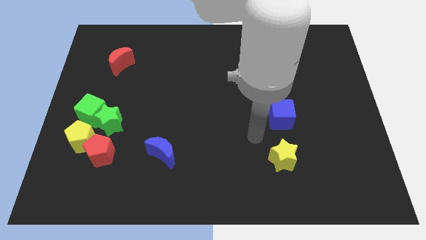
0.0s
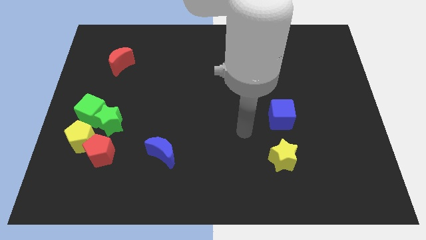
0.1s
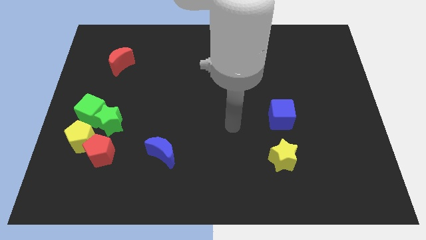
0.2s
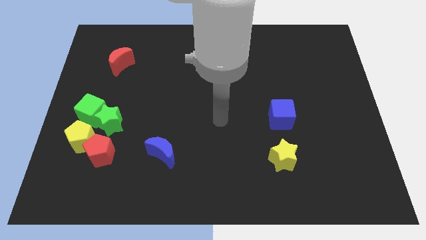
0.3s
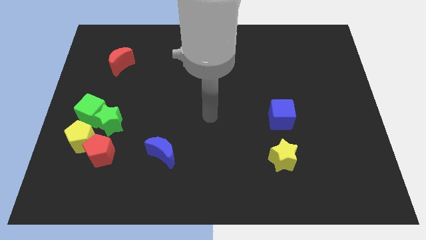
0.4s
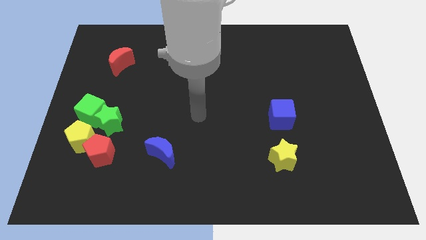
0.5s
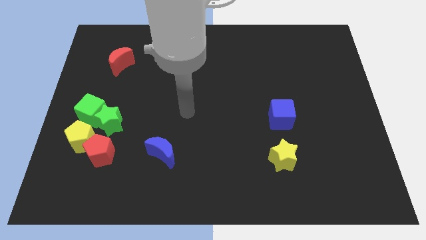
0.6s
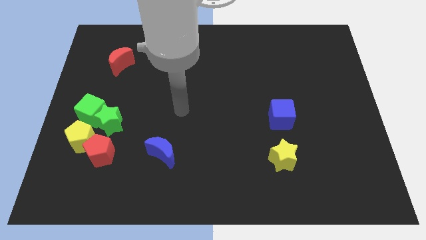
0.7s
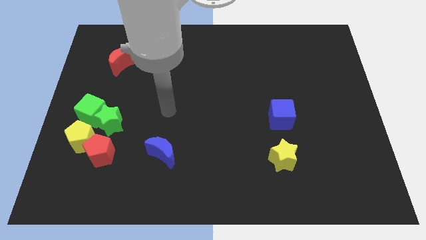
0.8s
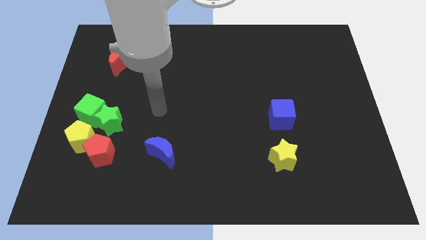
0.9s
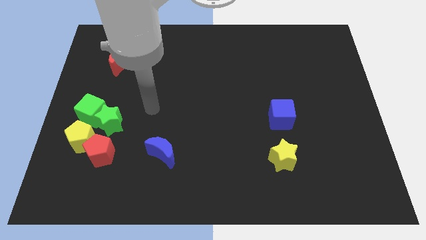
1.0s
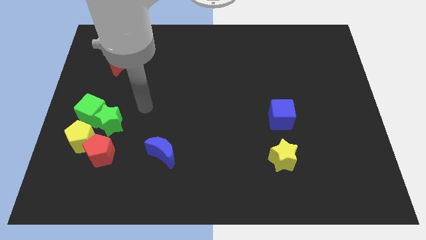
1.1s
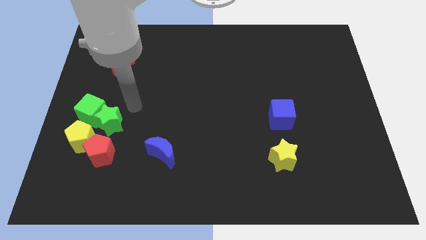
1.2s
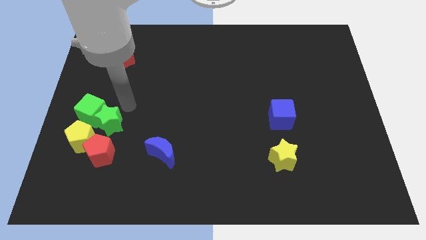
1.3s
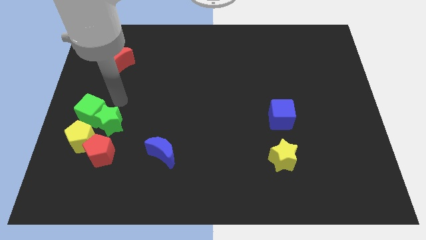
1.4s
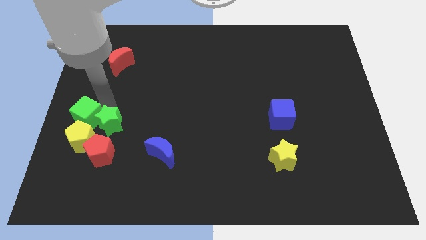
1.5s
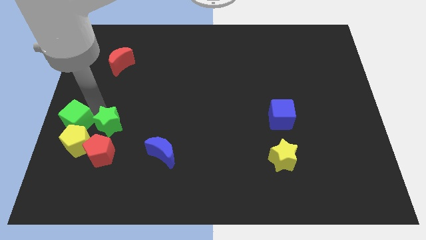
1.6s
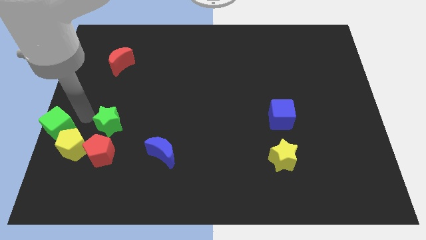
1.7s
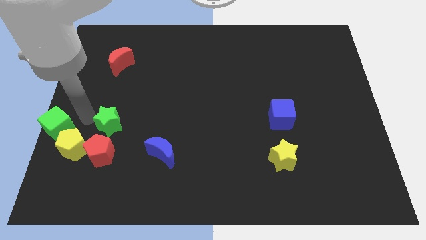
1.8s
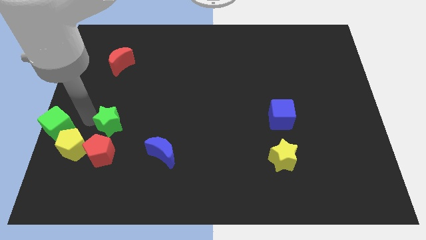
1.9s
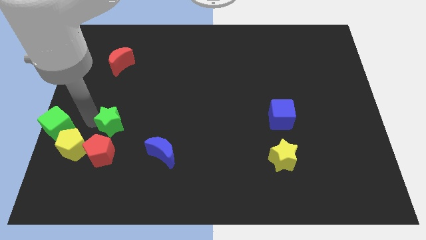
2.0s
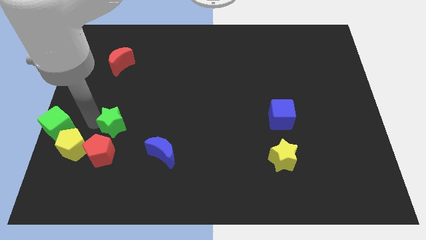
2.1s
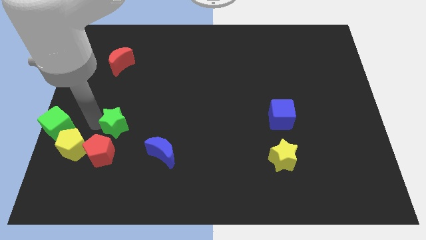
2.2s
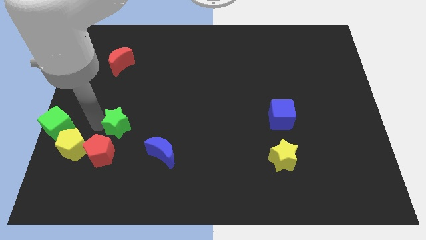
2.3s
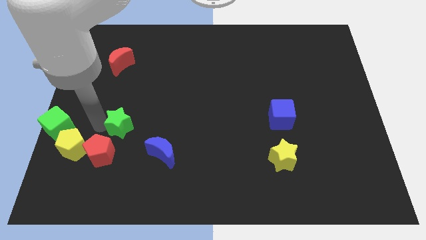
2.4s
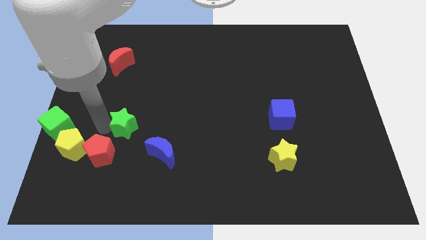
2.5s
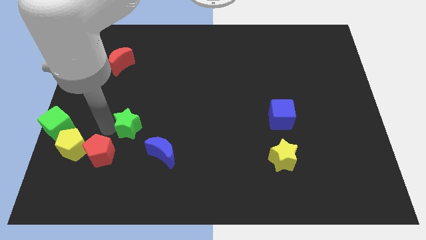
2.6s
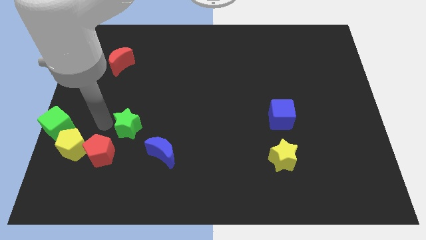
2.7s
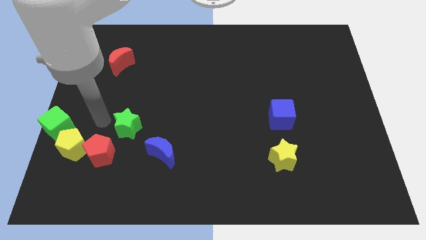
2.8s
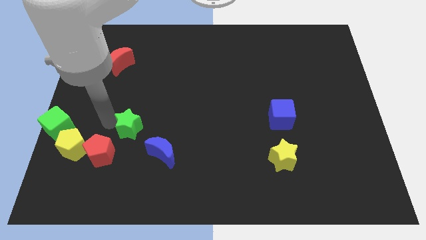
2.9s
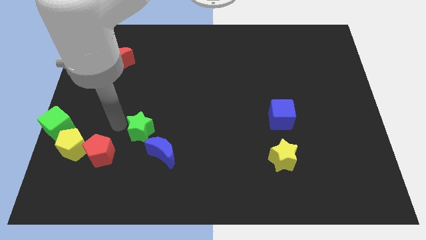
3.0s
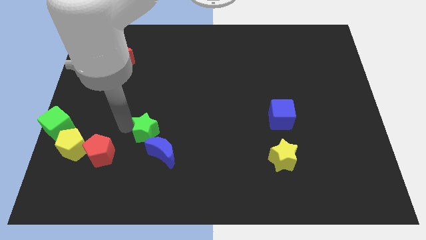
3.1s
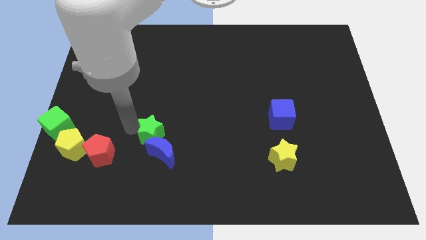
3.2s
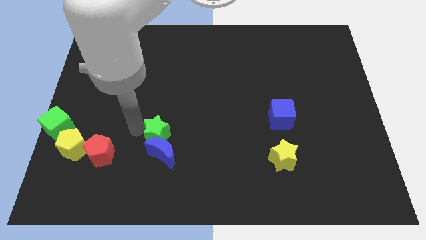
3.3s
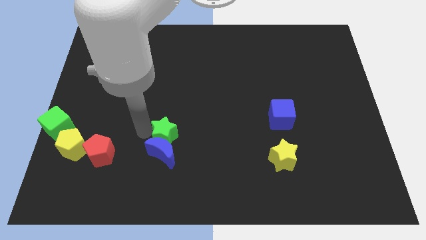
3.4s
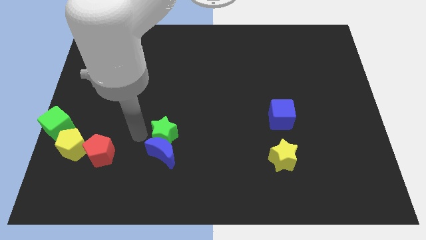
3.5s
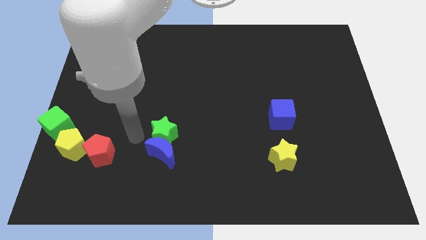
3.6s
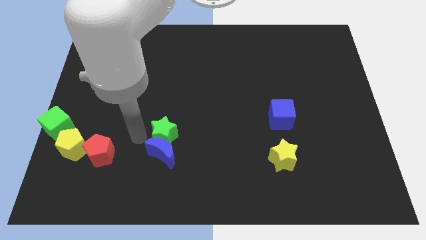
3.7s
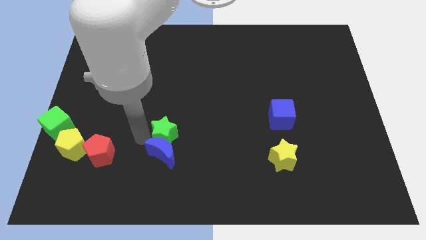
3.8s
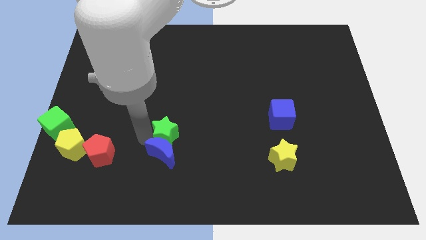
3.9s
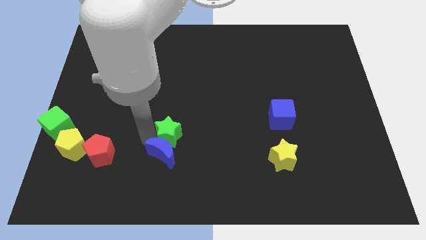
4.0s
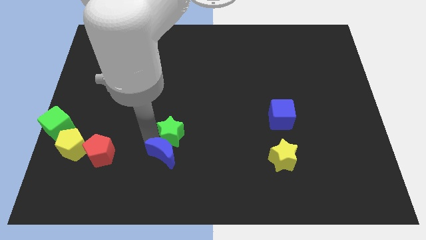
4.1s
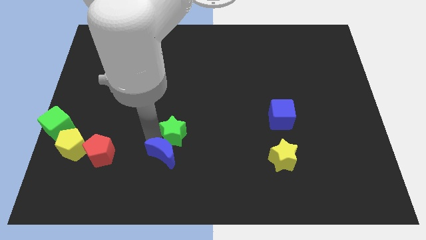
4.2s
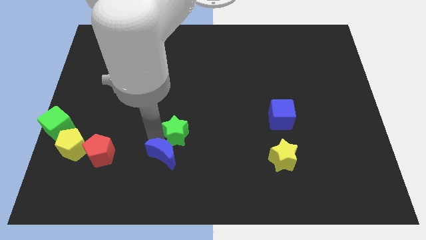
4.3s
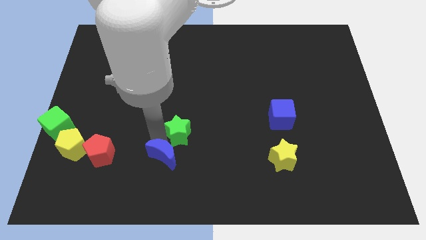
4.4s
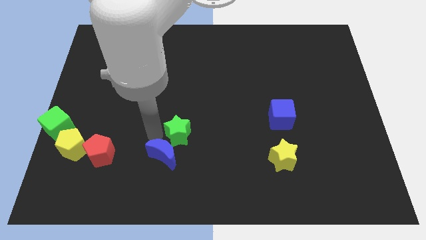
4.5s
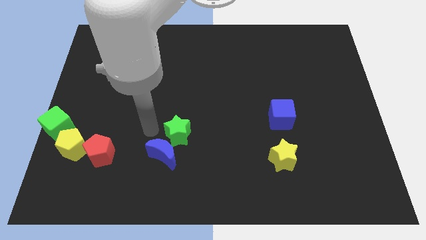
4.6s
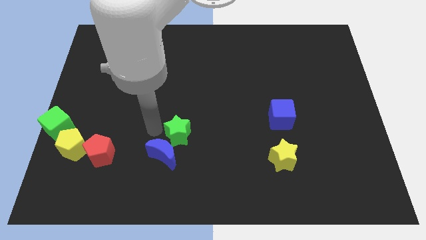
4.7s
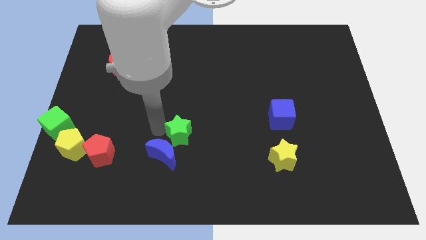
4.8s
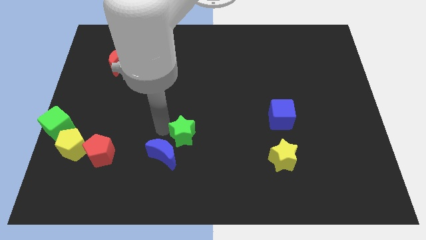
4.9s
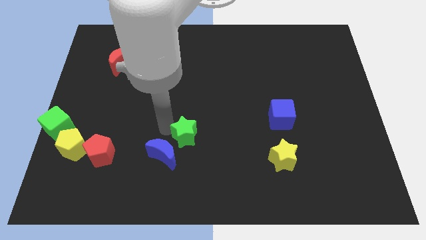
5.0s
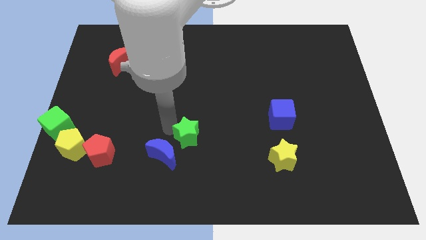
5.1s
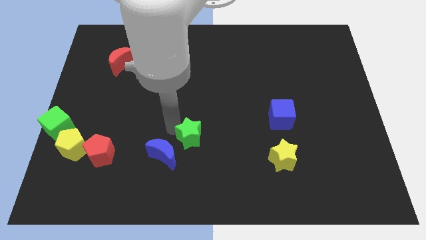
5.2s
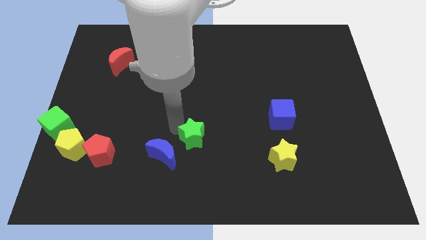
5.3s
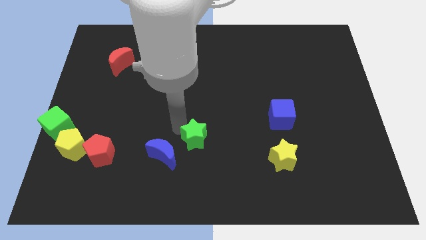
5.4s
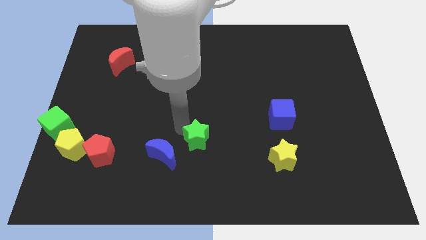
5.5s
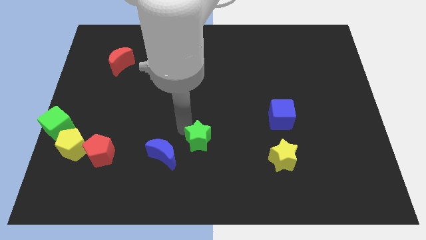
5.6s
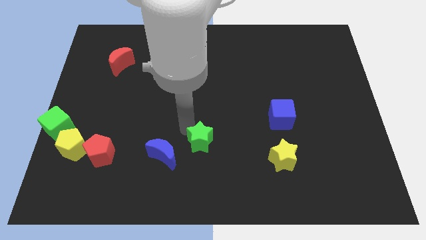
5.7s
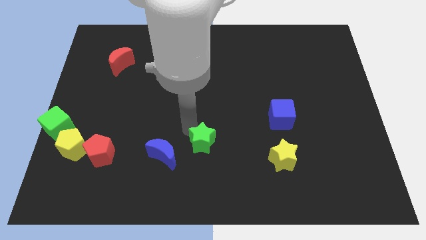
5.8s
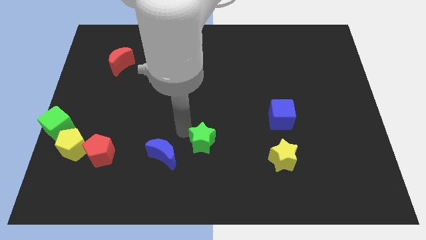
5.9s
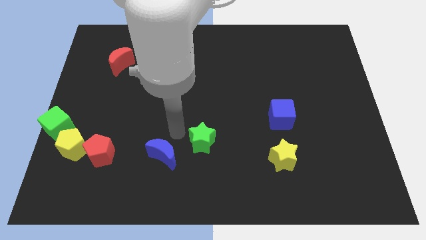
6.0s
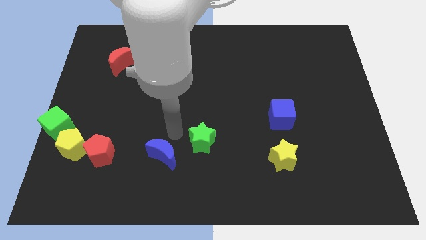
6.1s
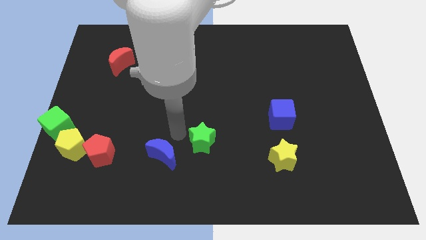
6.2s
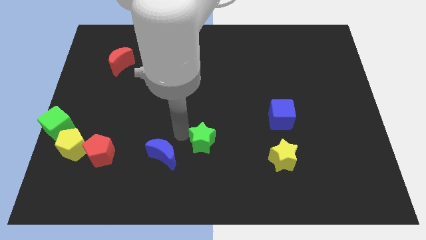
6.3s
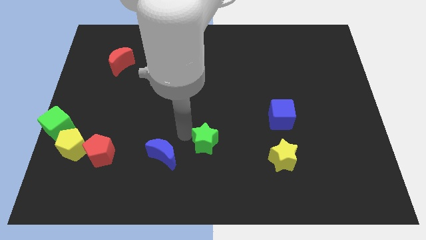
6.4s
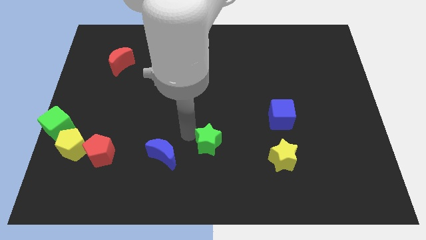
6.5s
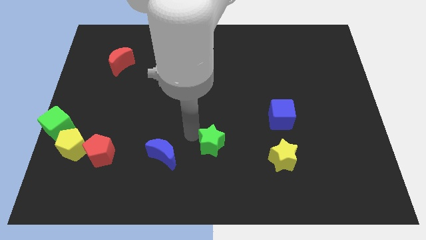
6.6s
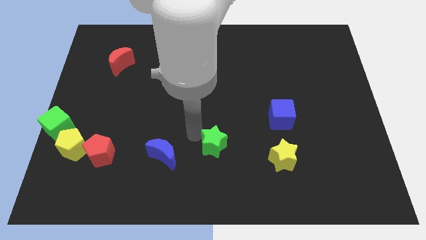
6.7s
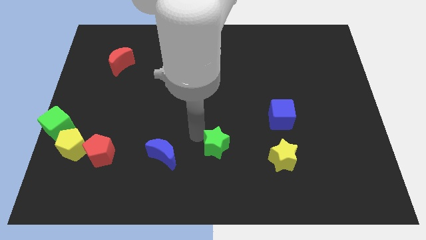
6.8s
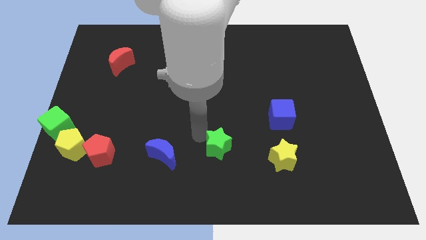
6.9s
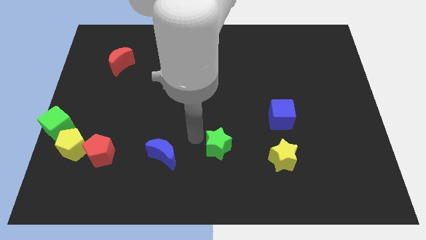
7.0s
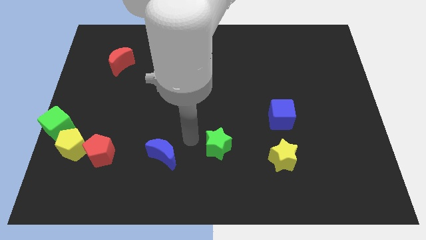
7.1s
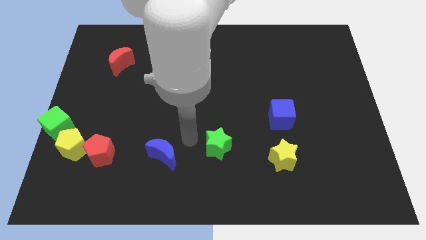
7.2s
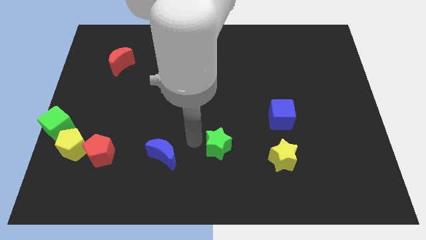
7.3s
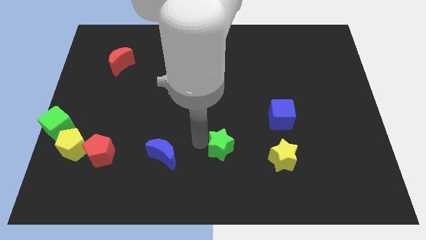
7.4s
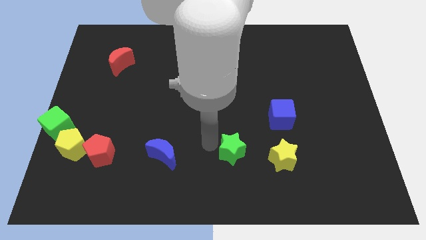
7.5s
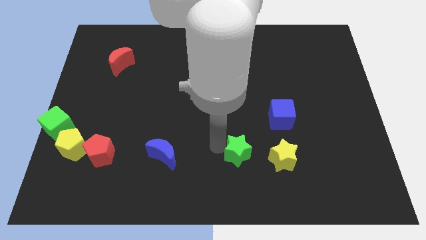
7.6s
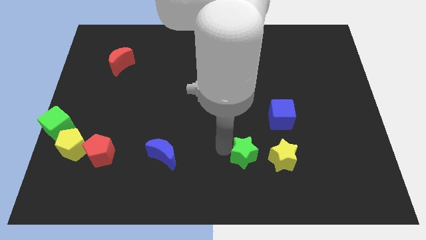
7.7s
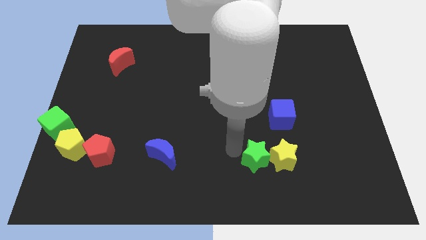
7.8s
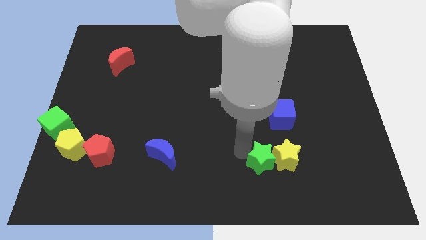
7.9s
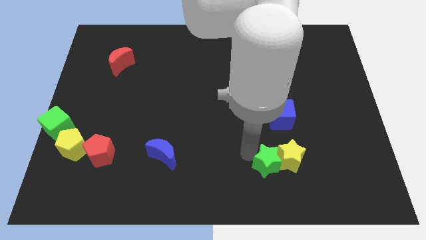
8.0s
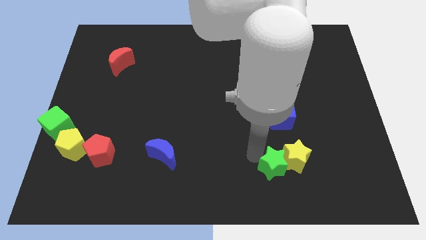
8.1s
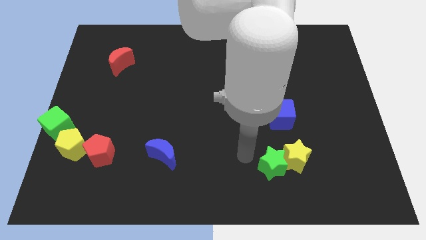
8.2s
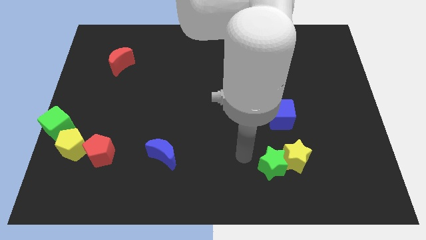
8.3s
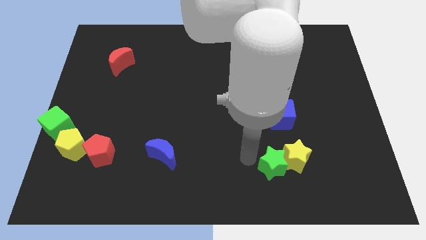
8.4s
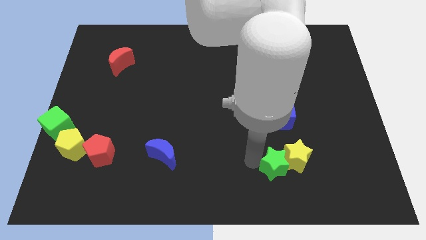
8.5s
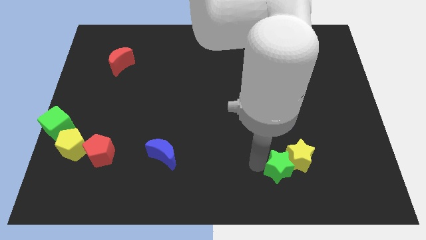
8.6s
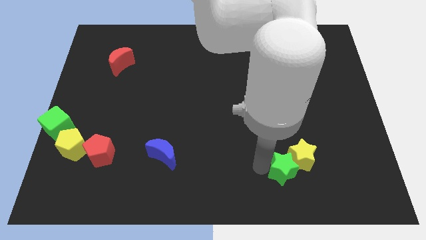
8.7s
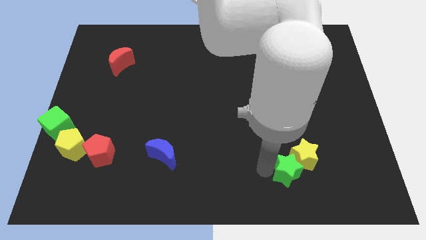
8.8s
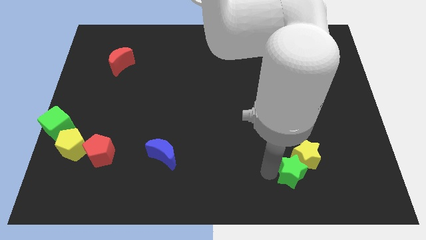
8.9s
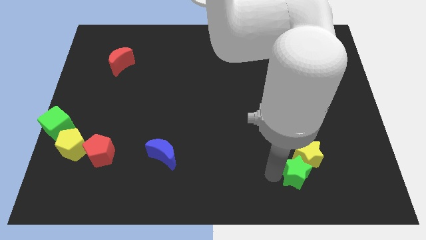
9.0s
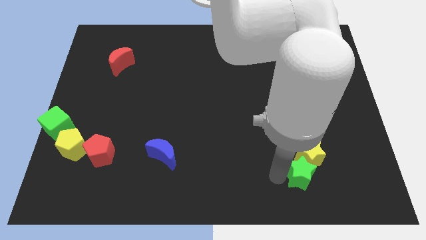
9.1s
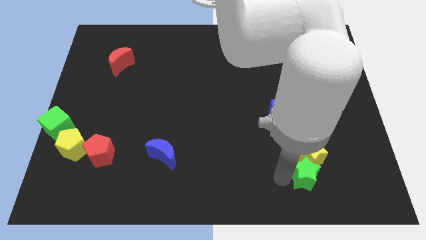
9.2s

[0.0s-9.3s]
put the green star to the bottom right of the yellow star
